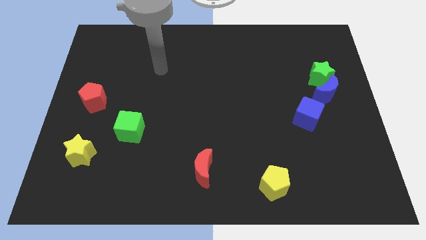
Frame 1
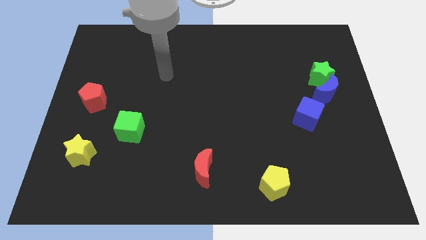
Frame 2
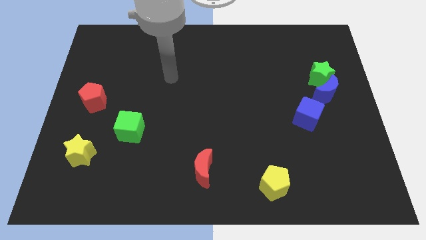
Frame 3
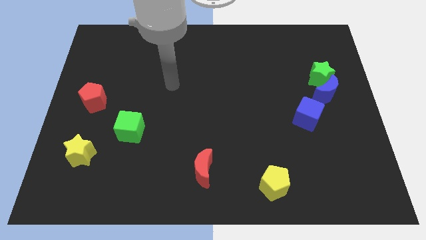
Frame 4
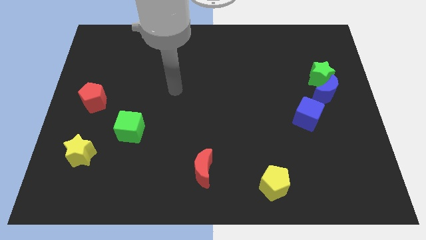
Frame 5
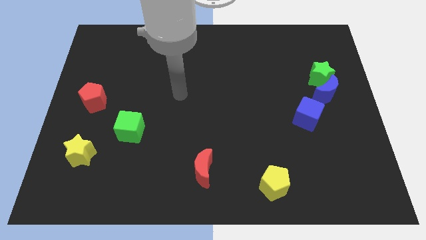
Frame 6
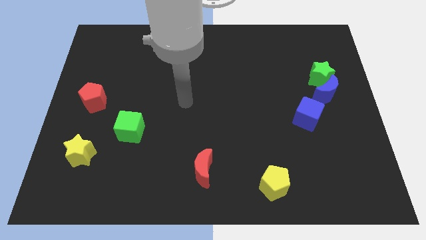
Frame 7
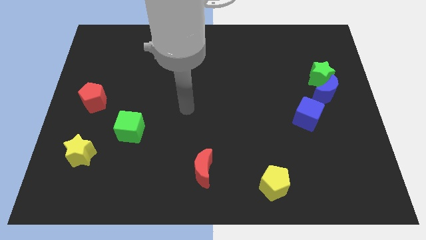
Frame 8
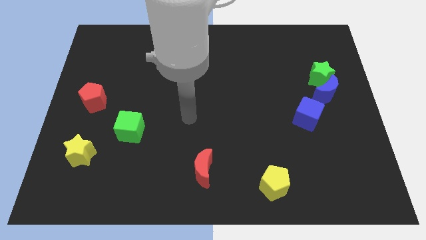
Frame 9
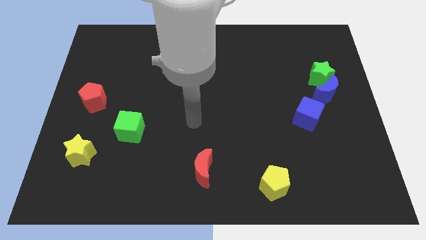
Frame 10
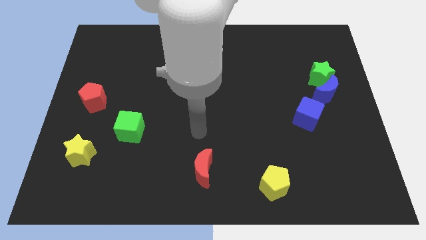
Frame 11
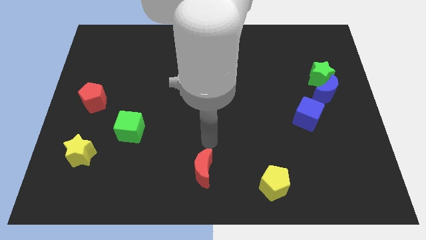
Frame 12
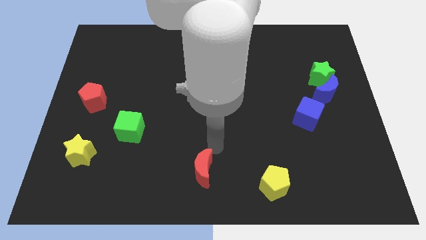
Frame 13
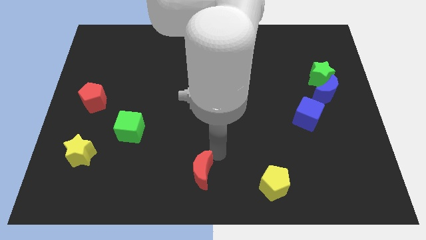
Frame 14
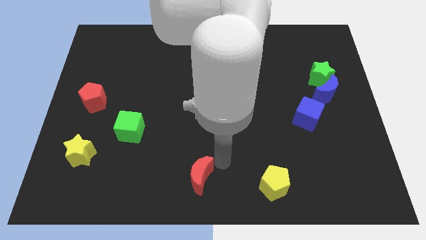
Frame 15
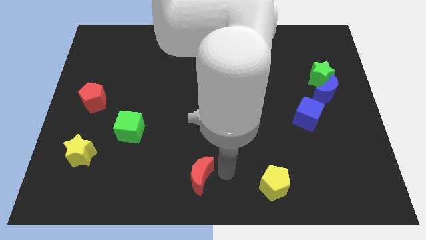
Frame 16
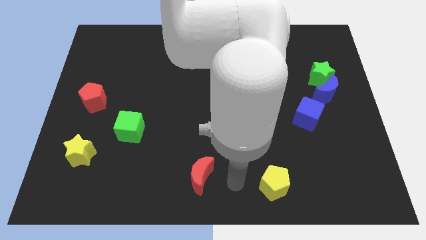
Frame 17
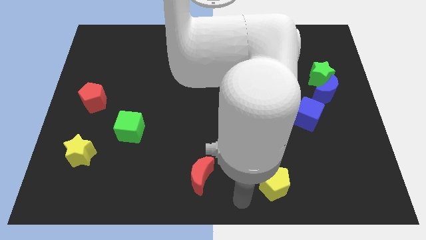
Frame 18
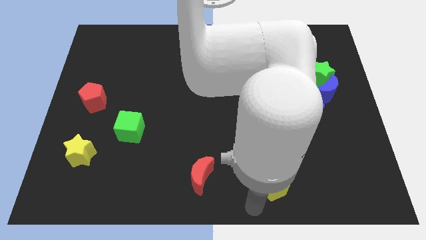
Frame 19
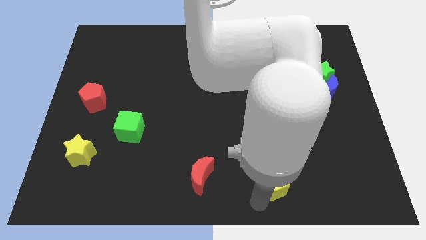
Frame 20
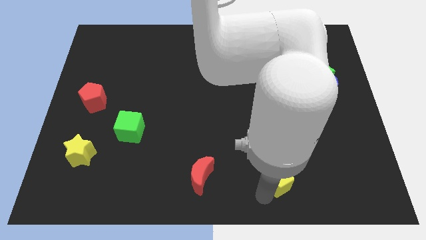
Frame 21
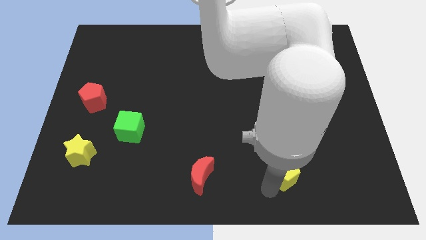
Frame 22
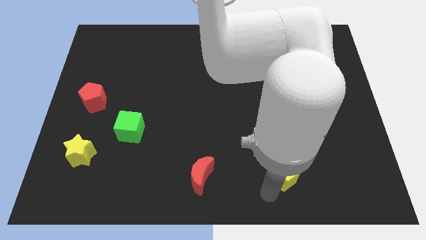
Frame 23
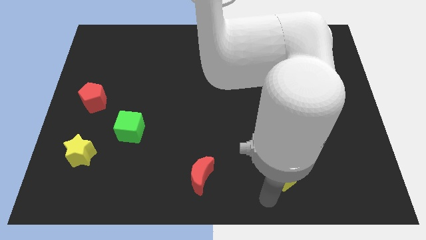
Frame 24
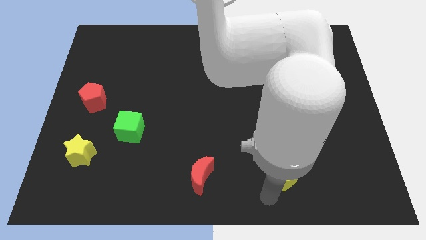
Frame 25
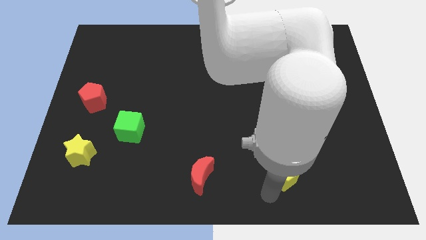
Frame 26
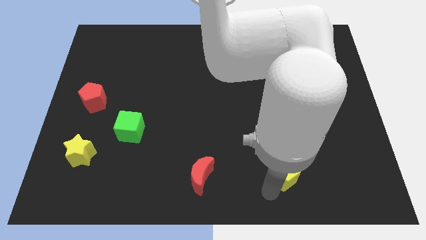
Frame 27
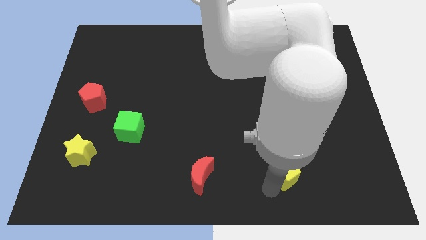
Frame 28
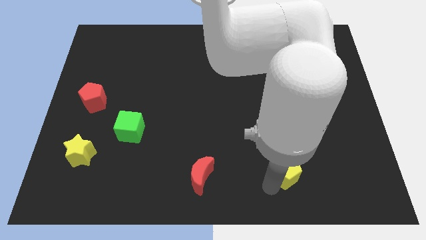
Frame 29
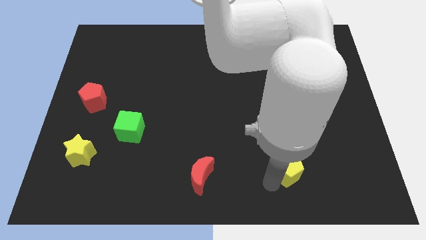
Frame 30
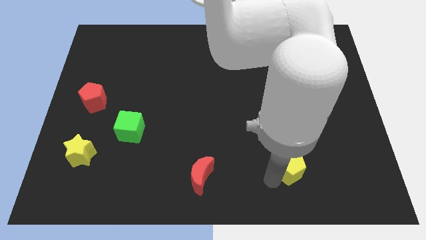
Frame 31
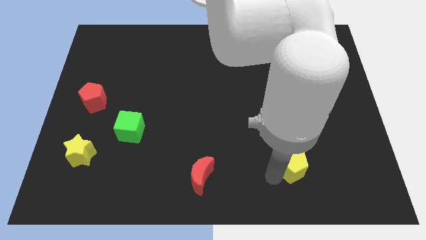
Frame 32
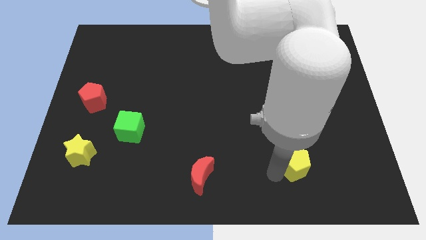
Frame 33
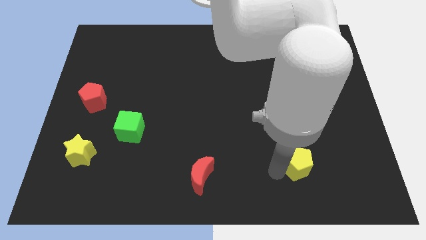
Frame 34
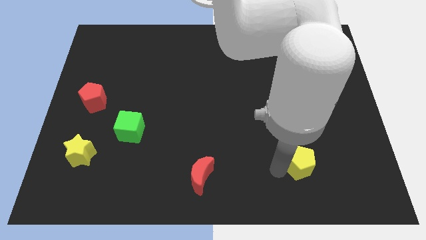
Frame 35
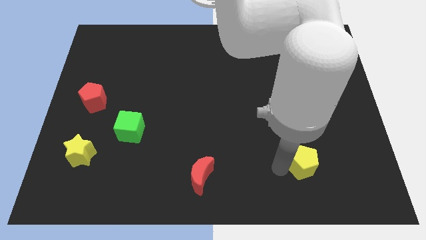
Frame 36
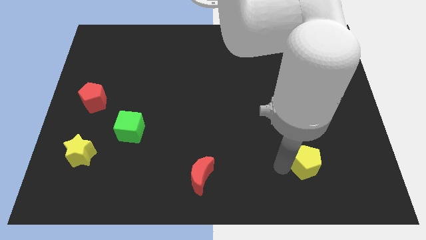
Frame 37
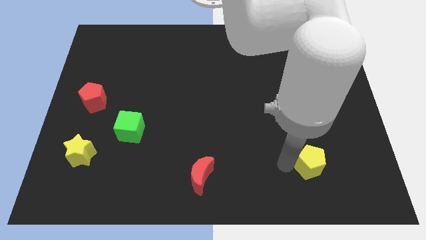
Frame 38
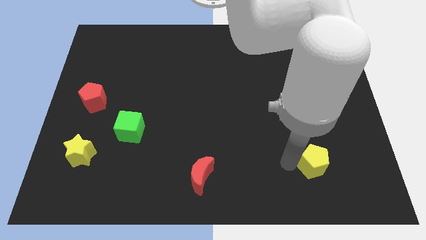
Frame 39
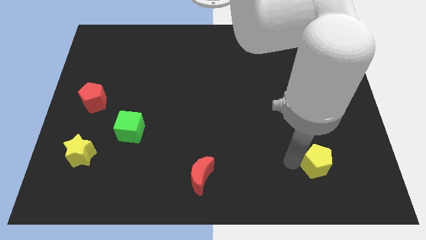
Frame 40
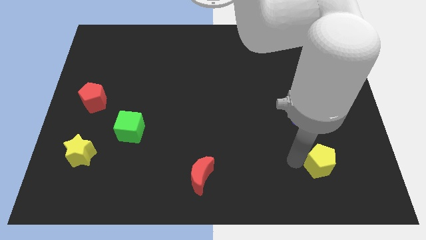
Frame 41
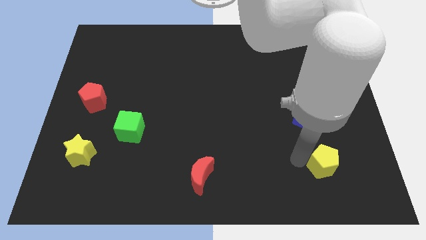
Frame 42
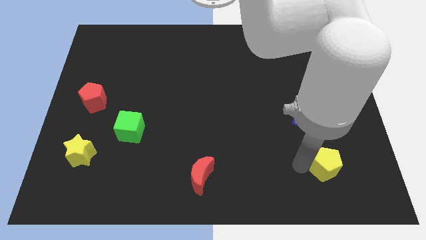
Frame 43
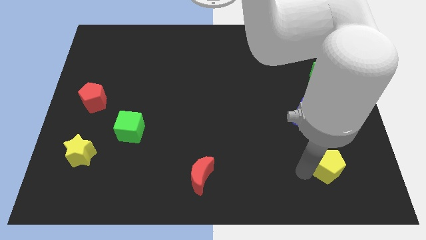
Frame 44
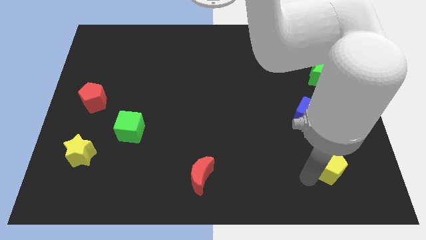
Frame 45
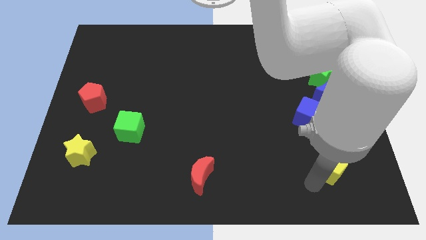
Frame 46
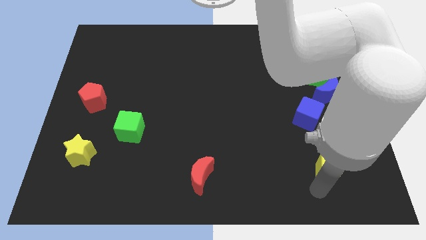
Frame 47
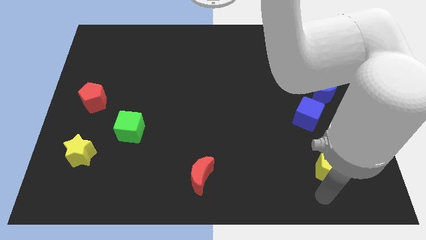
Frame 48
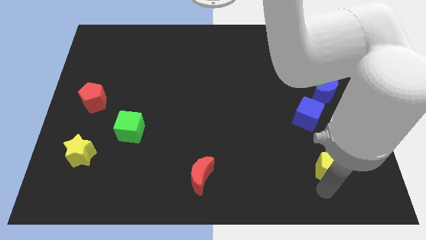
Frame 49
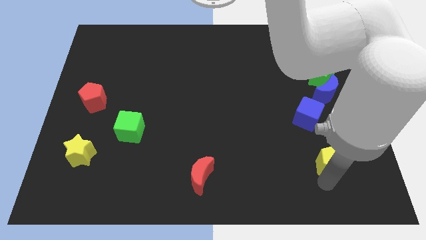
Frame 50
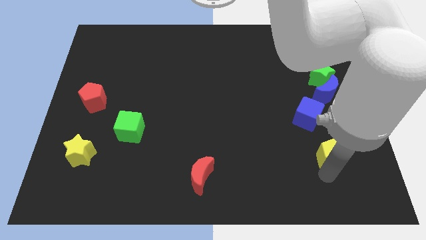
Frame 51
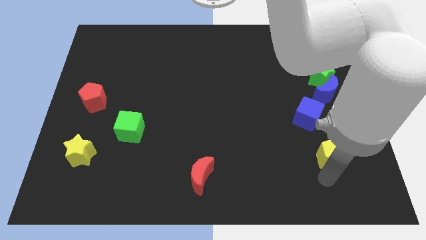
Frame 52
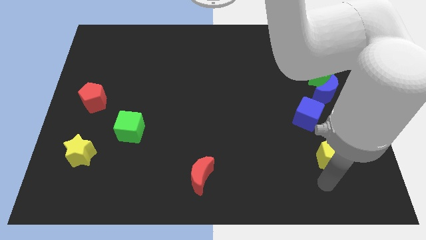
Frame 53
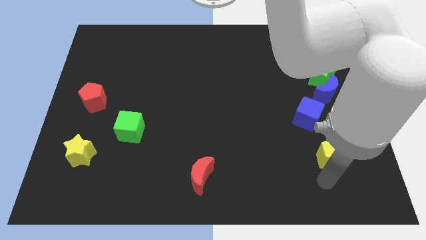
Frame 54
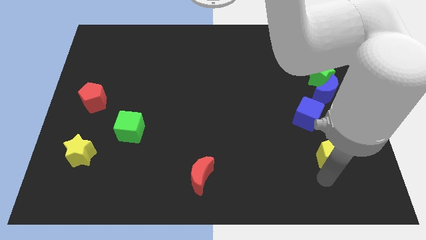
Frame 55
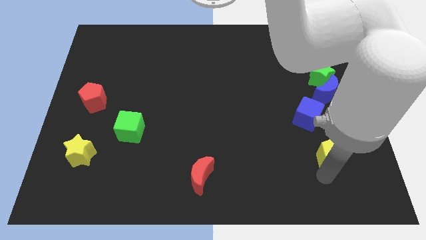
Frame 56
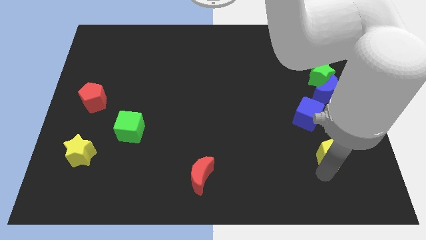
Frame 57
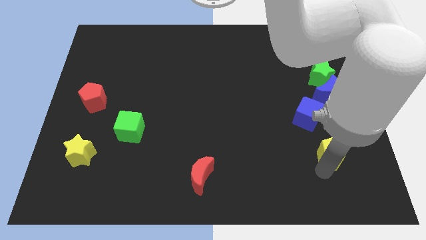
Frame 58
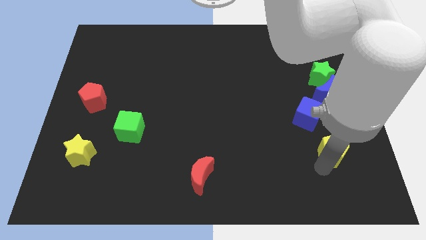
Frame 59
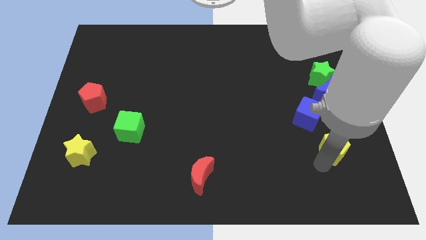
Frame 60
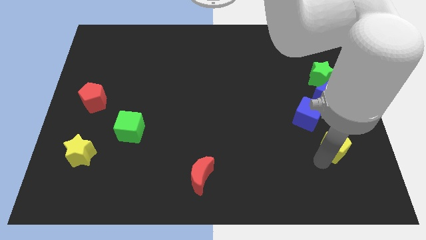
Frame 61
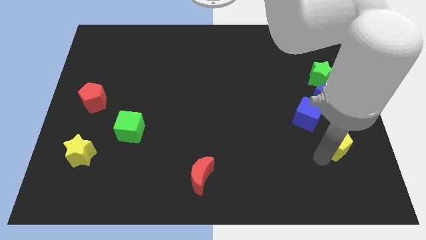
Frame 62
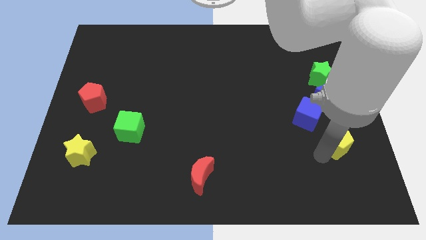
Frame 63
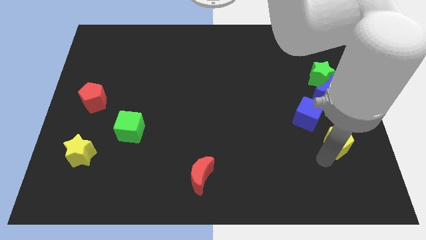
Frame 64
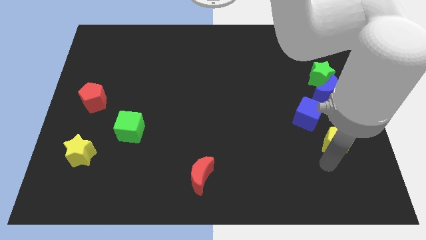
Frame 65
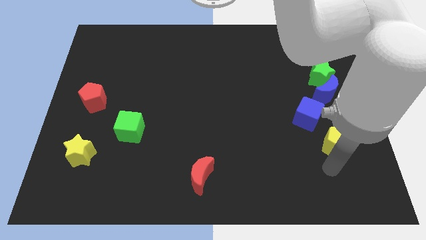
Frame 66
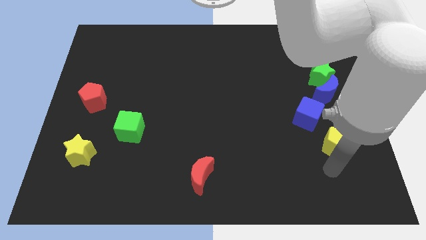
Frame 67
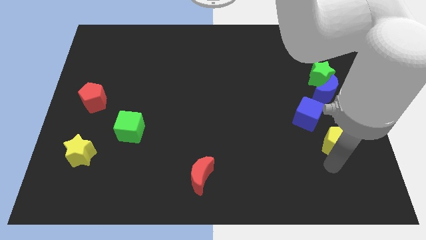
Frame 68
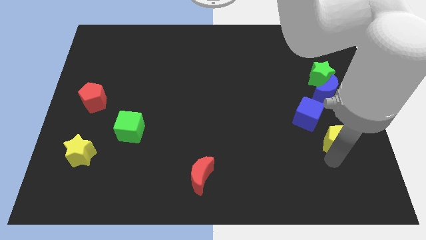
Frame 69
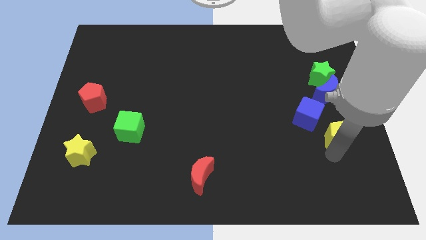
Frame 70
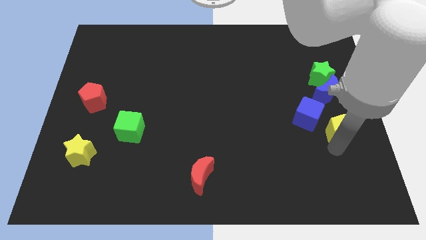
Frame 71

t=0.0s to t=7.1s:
move the yellow pentagon to the bottom of the green star
